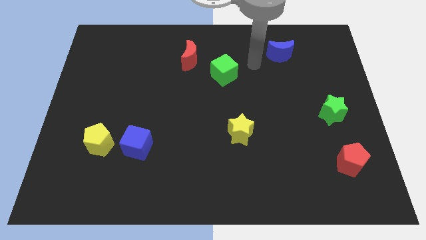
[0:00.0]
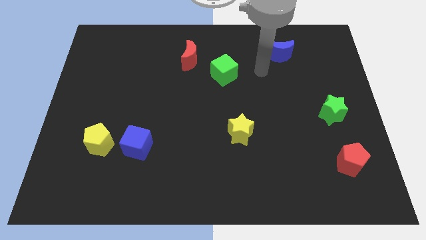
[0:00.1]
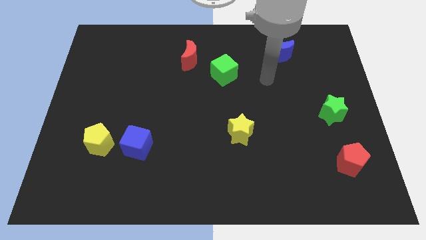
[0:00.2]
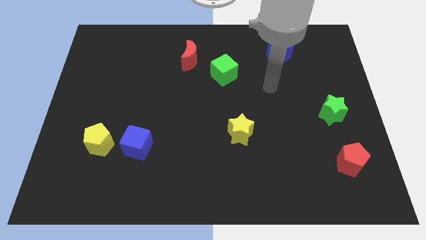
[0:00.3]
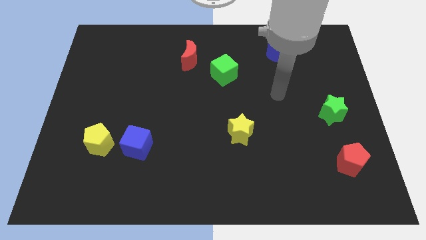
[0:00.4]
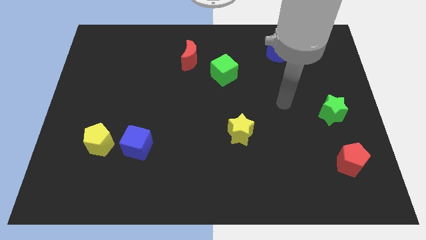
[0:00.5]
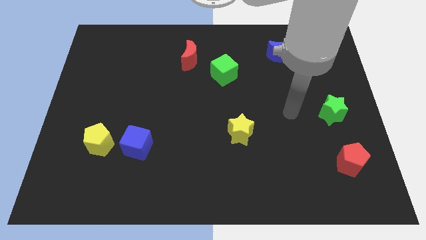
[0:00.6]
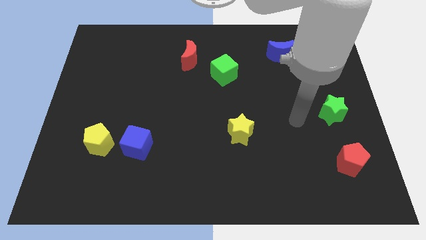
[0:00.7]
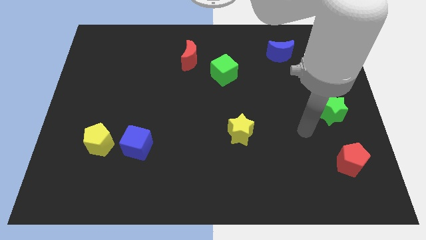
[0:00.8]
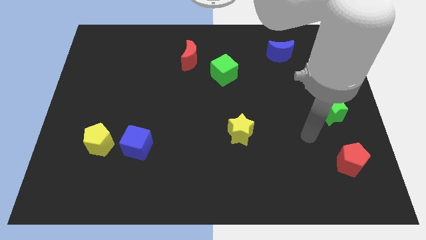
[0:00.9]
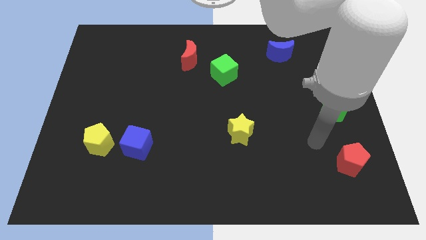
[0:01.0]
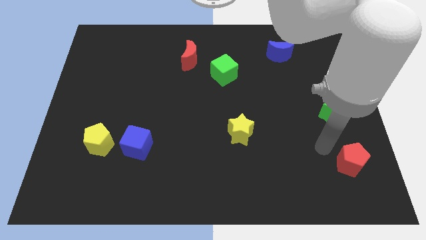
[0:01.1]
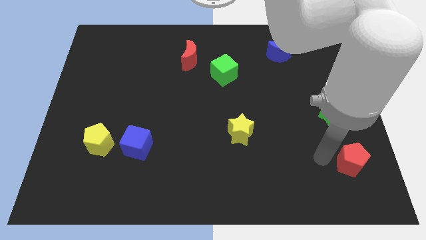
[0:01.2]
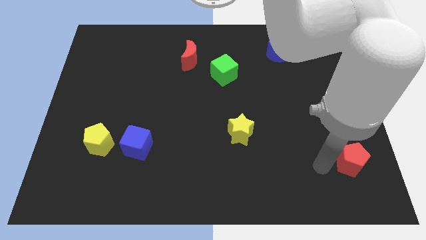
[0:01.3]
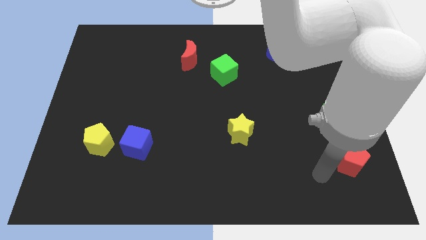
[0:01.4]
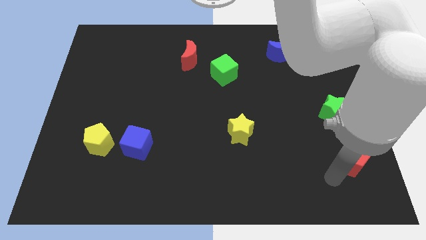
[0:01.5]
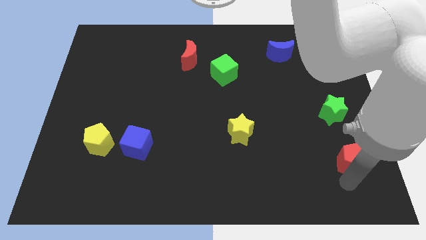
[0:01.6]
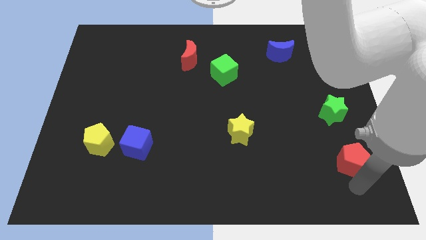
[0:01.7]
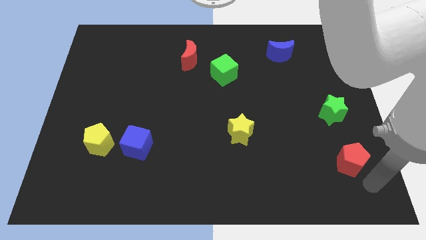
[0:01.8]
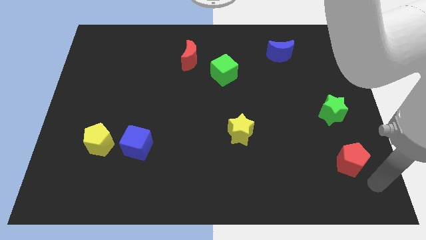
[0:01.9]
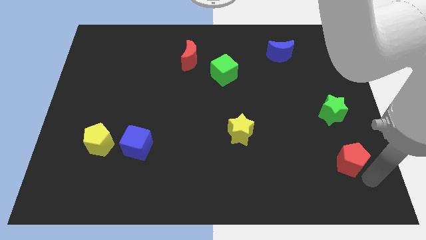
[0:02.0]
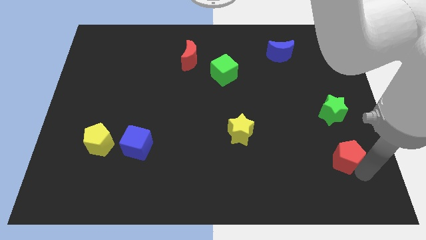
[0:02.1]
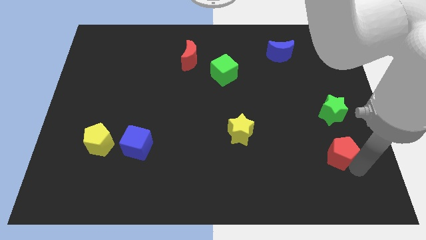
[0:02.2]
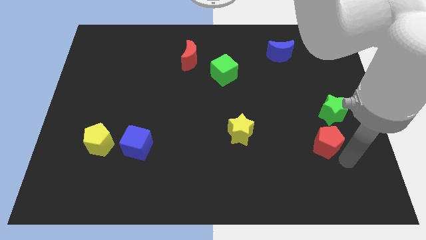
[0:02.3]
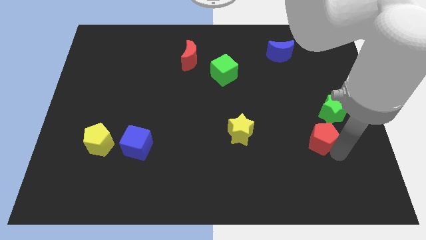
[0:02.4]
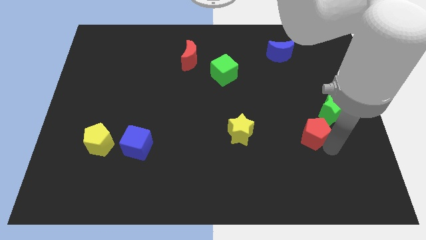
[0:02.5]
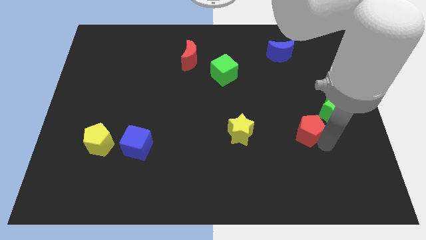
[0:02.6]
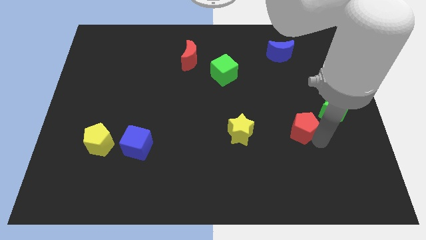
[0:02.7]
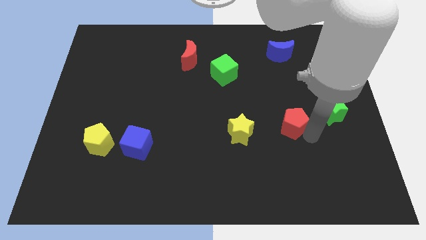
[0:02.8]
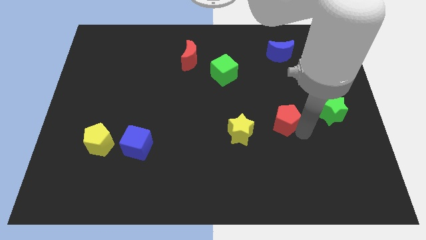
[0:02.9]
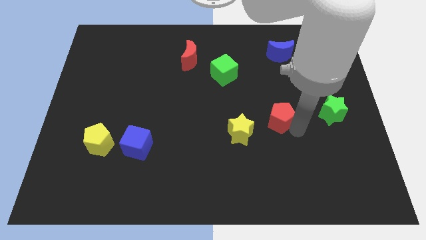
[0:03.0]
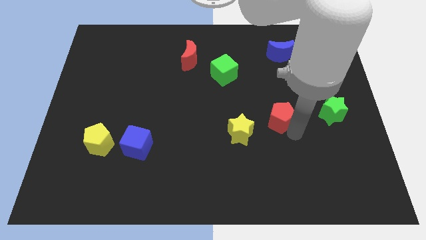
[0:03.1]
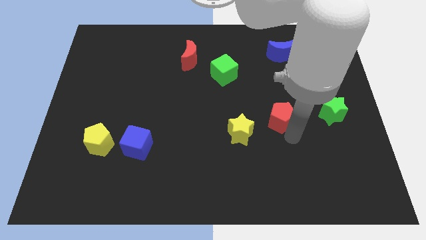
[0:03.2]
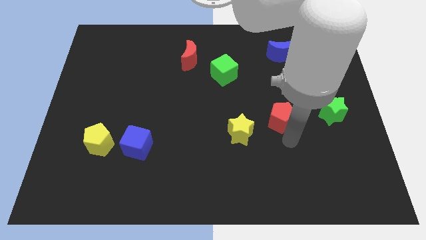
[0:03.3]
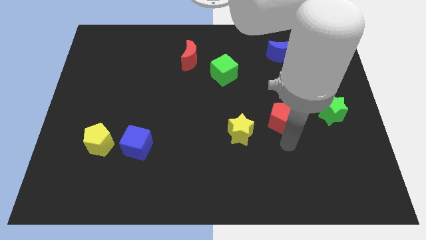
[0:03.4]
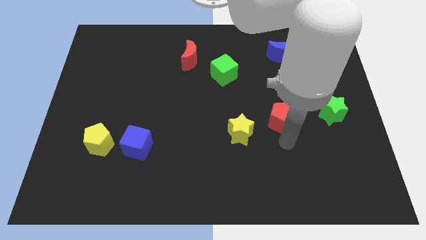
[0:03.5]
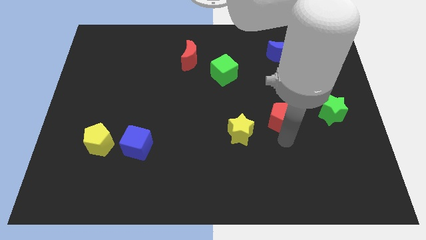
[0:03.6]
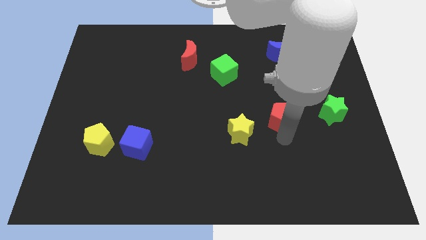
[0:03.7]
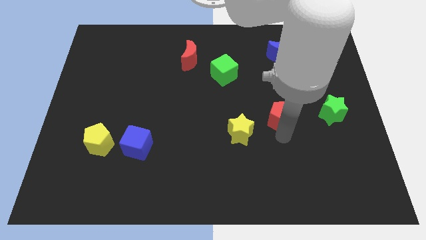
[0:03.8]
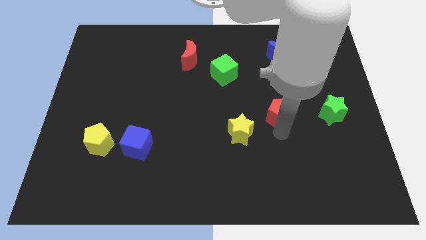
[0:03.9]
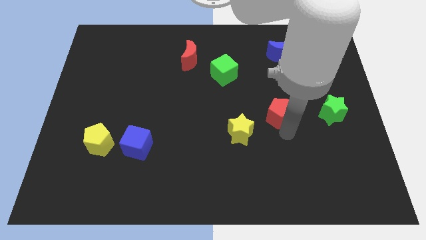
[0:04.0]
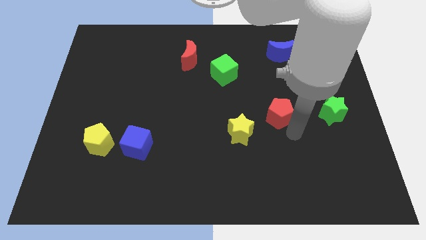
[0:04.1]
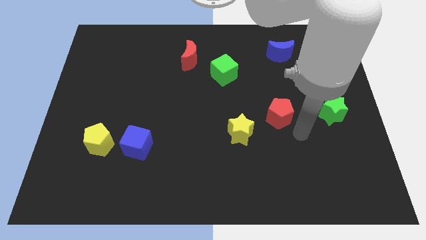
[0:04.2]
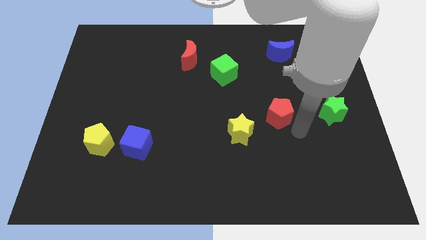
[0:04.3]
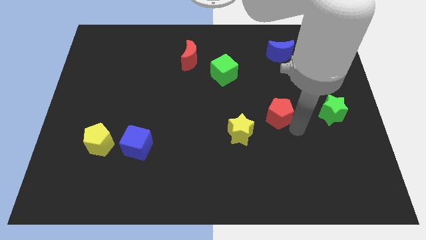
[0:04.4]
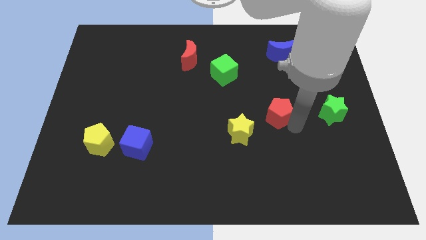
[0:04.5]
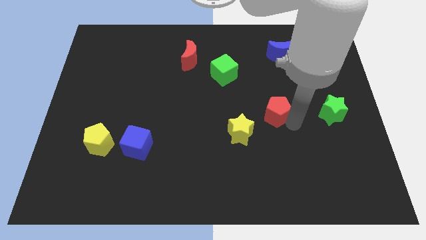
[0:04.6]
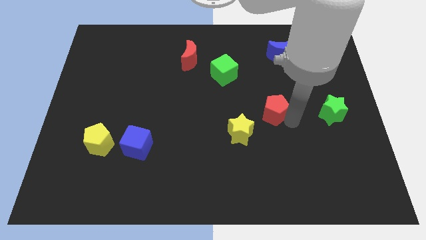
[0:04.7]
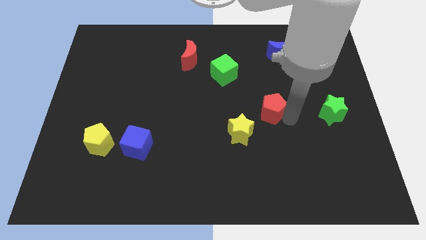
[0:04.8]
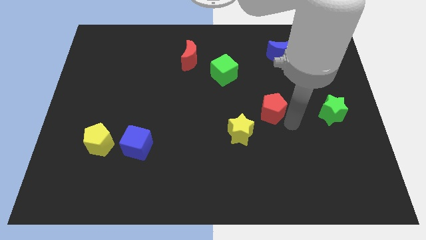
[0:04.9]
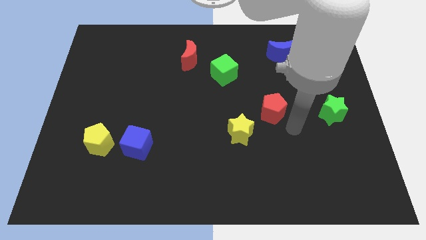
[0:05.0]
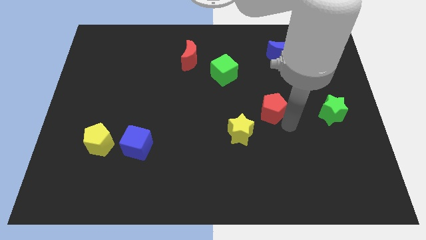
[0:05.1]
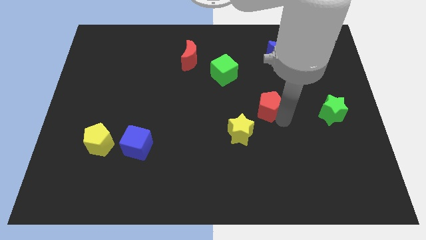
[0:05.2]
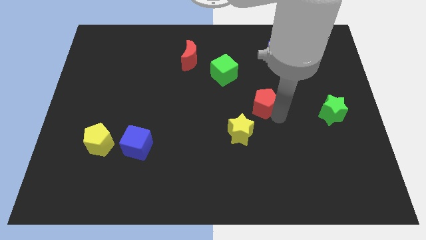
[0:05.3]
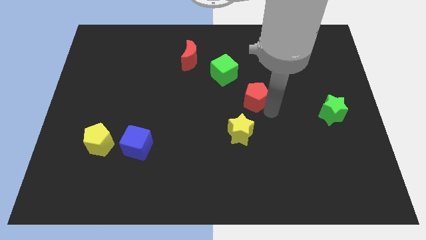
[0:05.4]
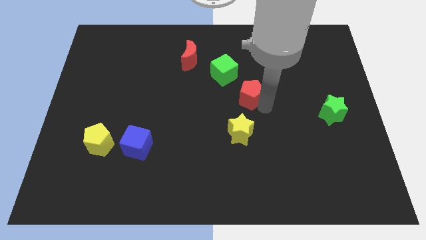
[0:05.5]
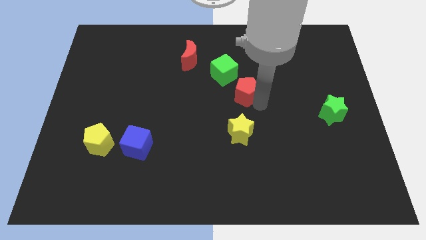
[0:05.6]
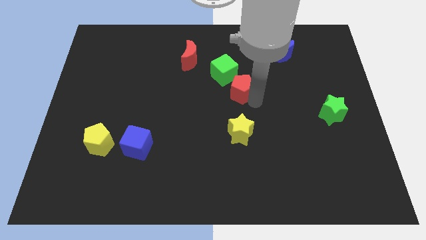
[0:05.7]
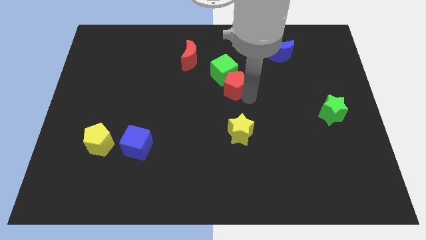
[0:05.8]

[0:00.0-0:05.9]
put the red pentagon towards the green cube
